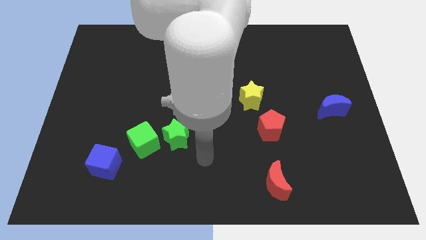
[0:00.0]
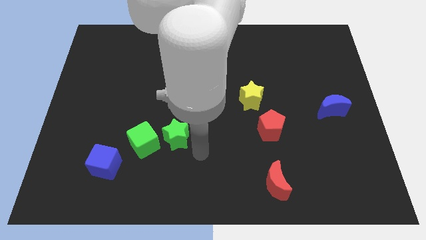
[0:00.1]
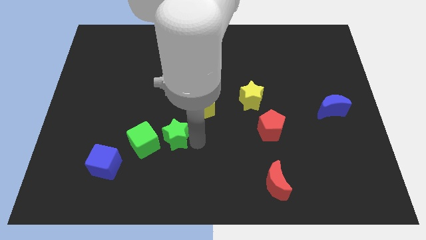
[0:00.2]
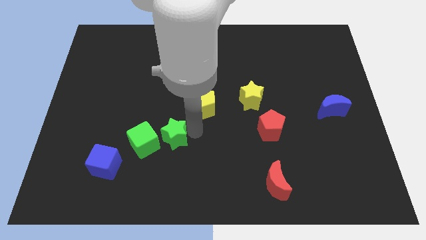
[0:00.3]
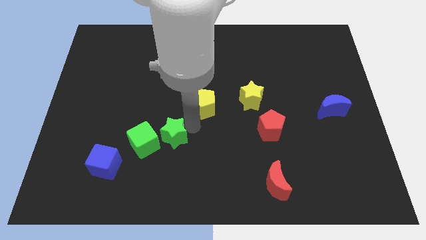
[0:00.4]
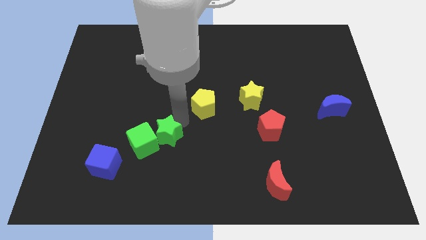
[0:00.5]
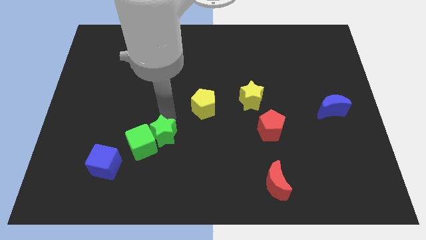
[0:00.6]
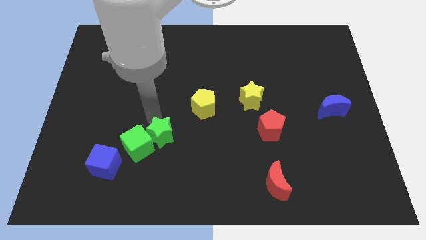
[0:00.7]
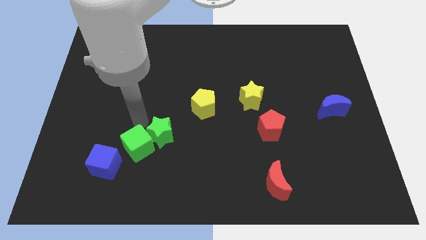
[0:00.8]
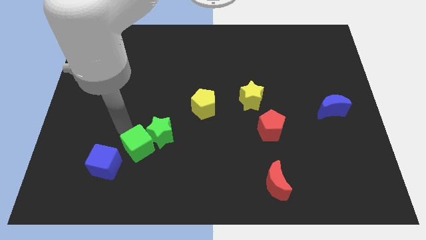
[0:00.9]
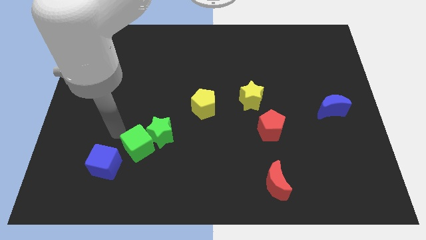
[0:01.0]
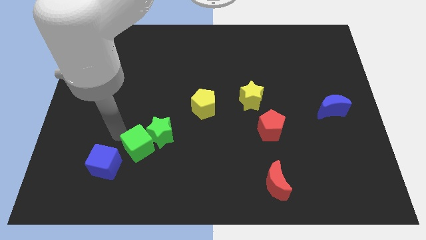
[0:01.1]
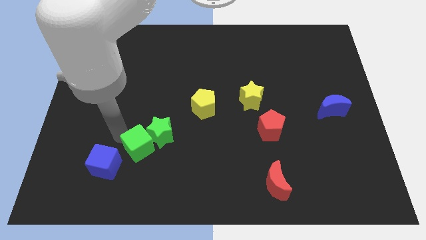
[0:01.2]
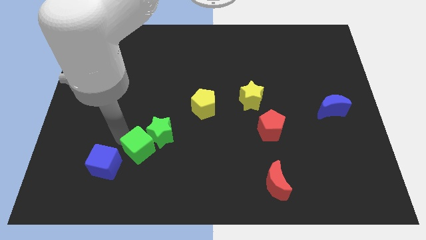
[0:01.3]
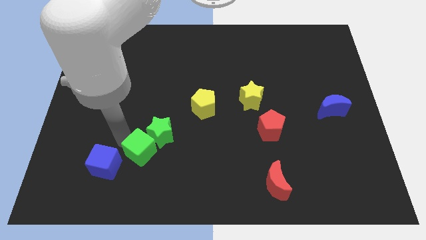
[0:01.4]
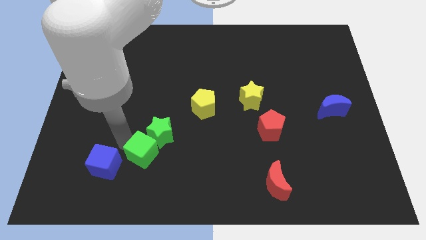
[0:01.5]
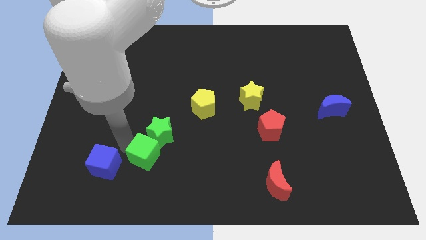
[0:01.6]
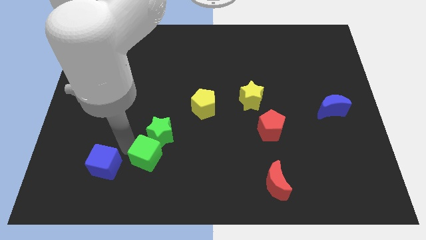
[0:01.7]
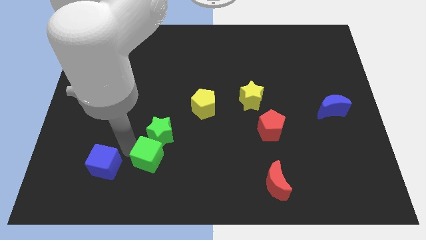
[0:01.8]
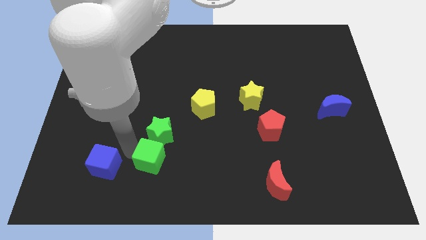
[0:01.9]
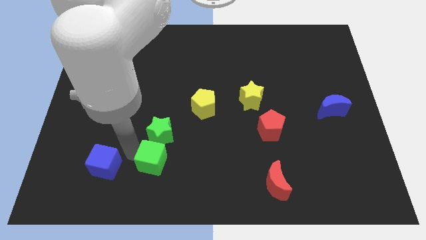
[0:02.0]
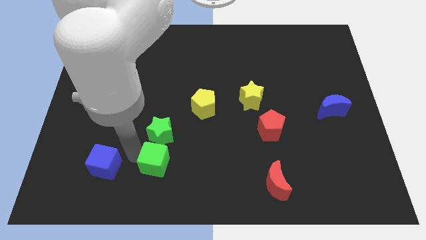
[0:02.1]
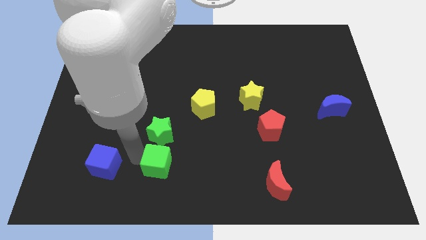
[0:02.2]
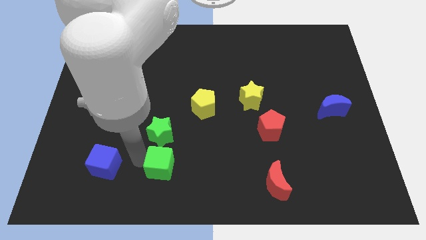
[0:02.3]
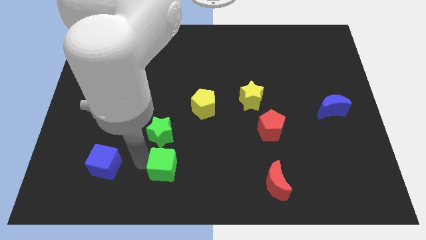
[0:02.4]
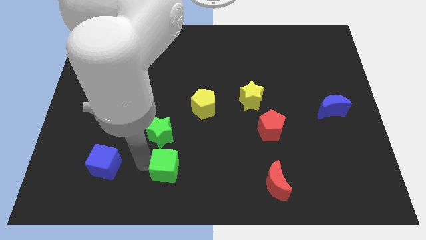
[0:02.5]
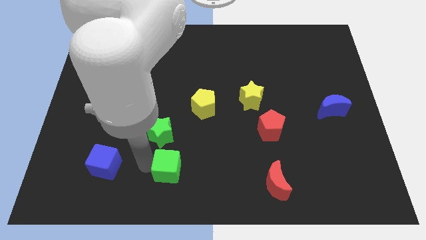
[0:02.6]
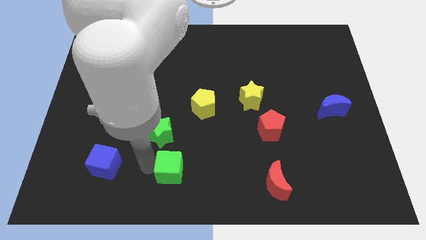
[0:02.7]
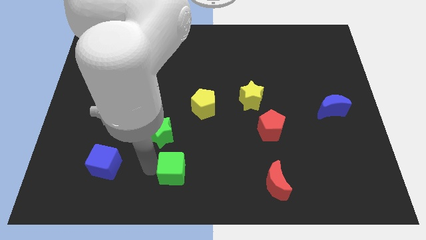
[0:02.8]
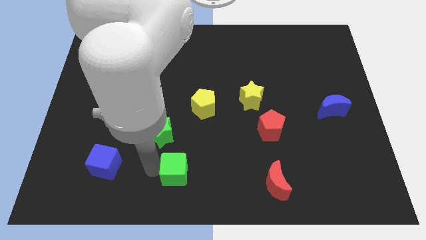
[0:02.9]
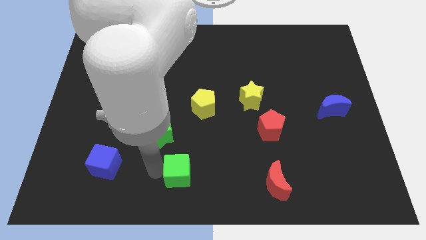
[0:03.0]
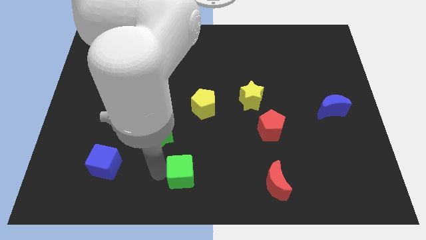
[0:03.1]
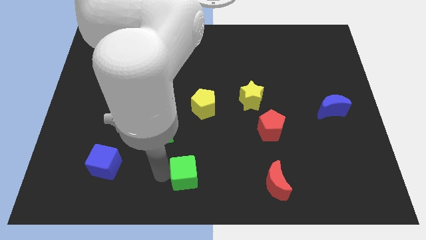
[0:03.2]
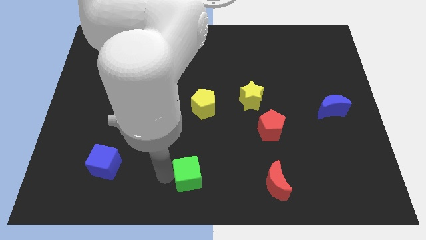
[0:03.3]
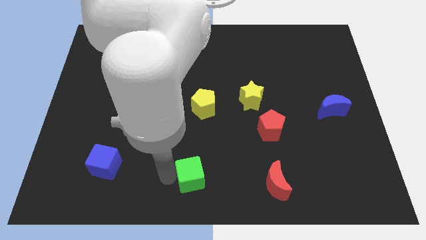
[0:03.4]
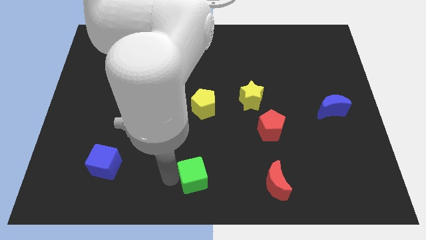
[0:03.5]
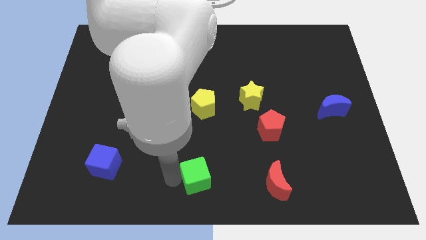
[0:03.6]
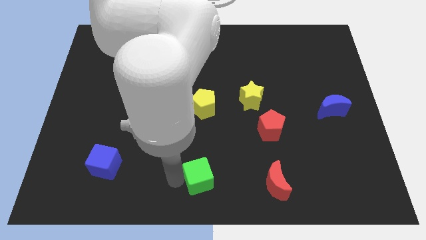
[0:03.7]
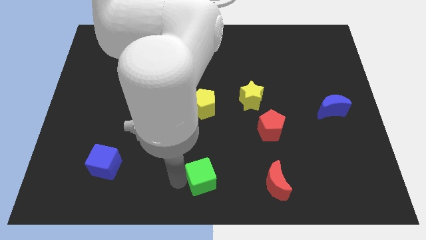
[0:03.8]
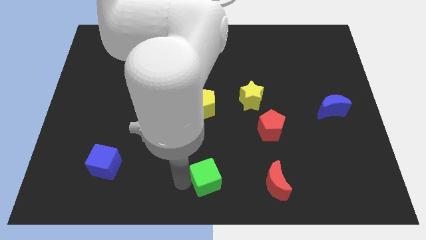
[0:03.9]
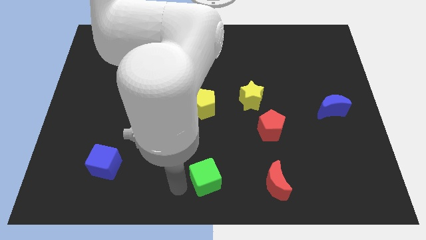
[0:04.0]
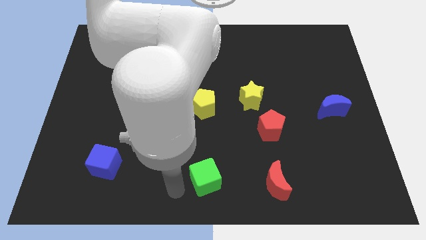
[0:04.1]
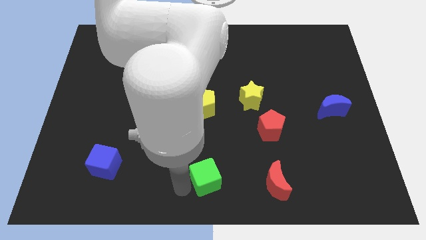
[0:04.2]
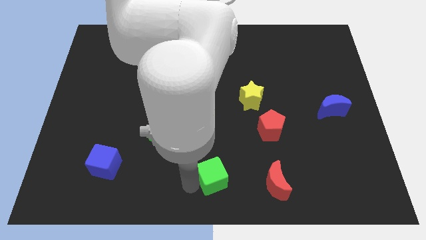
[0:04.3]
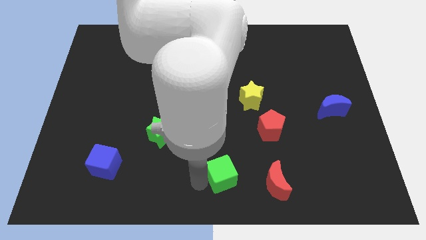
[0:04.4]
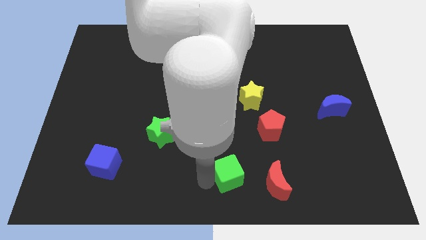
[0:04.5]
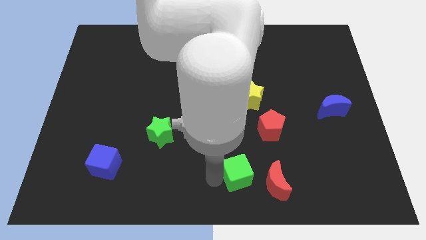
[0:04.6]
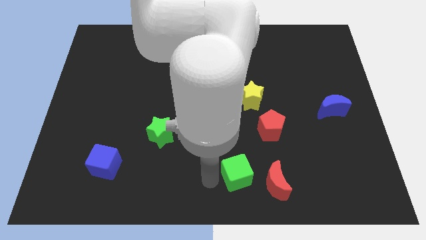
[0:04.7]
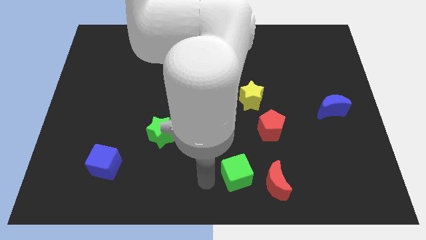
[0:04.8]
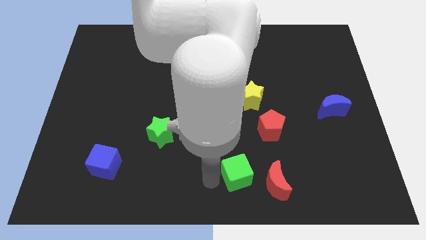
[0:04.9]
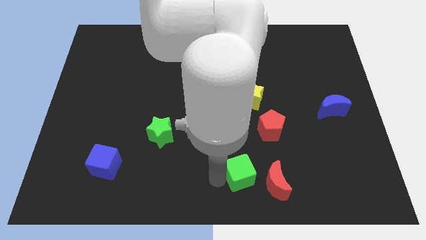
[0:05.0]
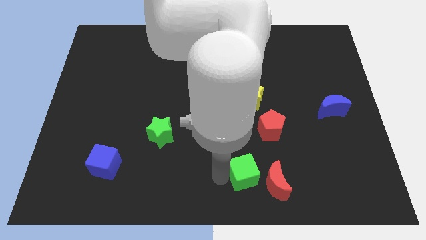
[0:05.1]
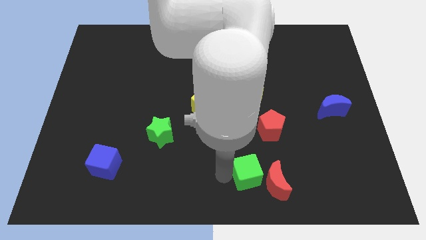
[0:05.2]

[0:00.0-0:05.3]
put the green cube next to the red moon

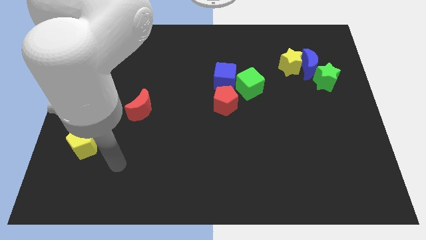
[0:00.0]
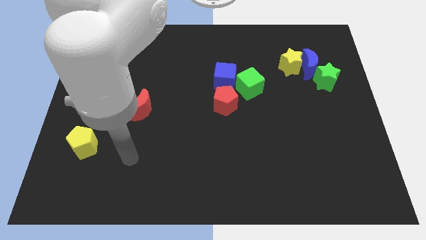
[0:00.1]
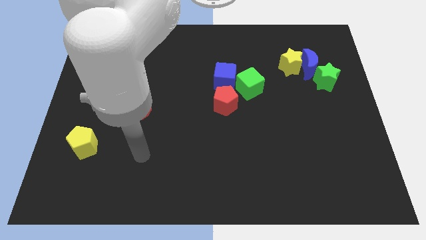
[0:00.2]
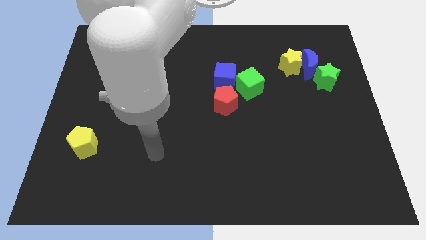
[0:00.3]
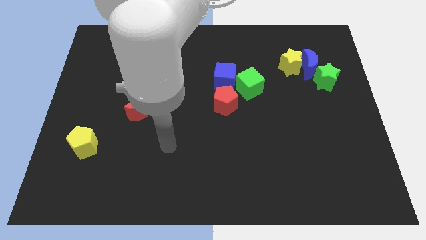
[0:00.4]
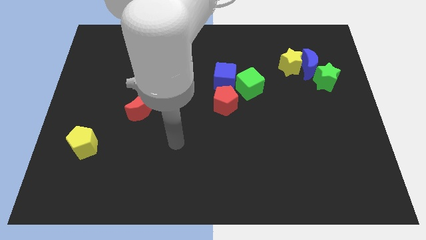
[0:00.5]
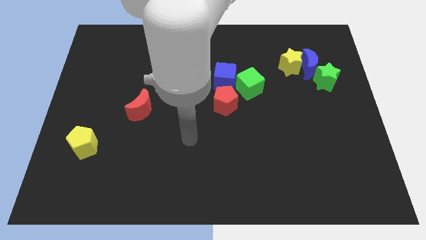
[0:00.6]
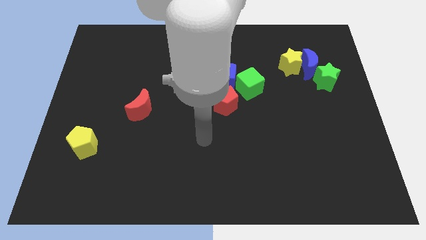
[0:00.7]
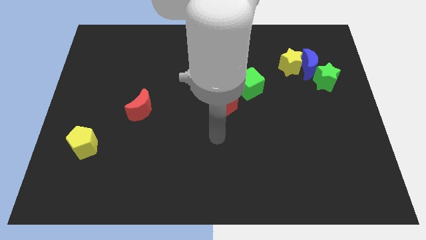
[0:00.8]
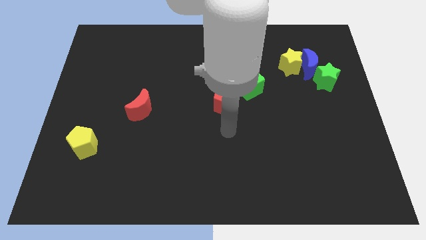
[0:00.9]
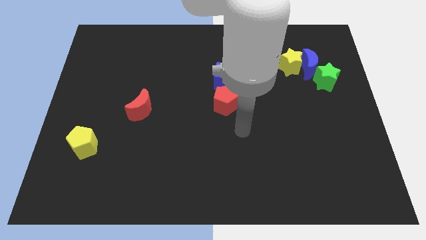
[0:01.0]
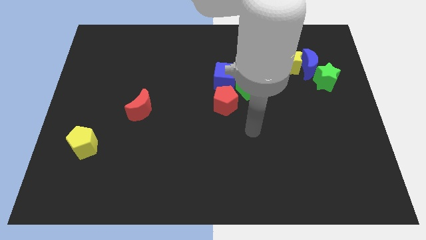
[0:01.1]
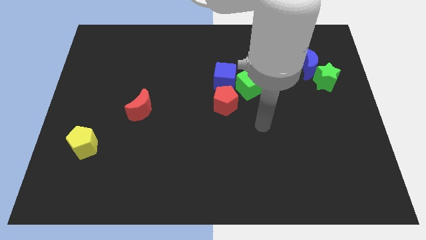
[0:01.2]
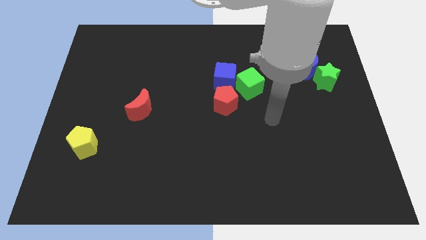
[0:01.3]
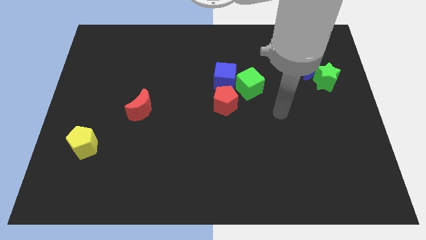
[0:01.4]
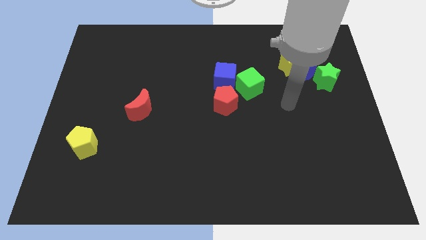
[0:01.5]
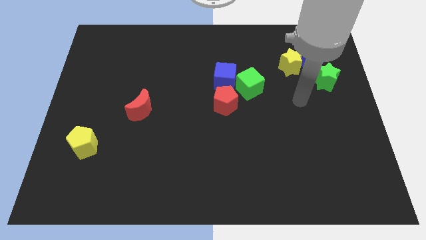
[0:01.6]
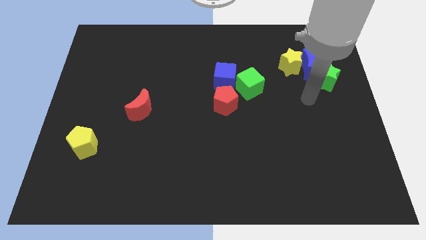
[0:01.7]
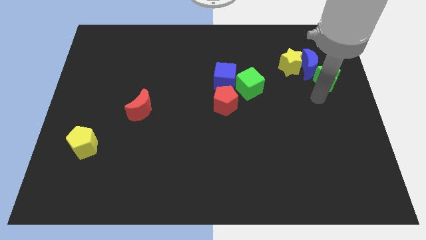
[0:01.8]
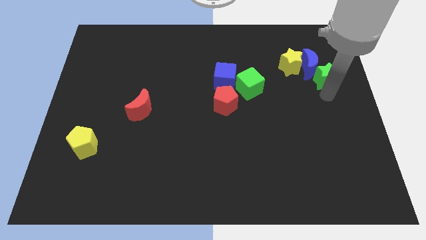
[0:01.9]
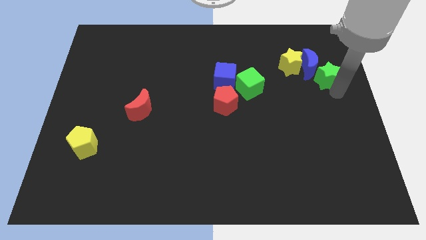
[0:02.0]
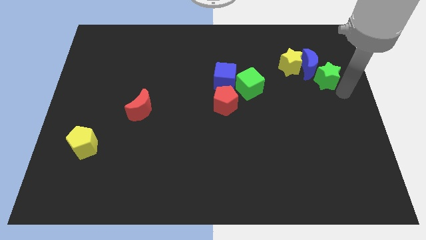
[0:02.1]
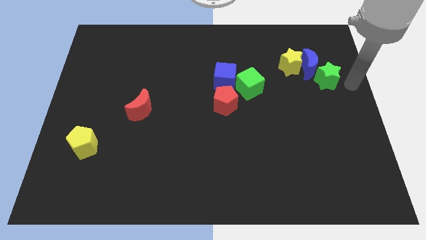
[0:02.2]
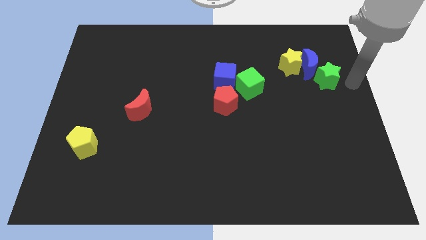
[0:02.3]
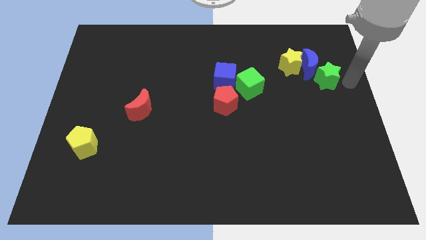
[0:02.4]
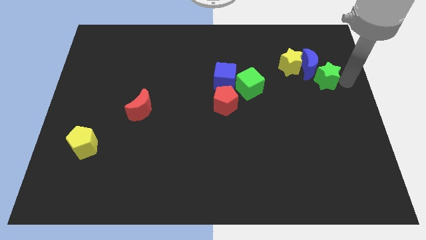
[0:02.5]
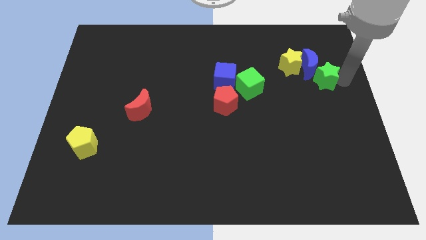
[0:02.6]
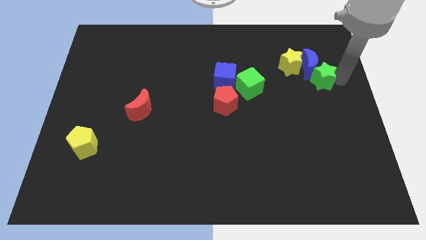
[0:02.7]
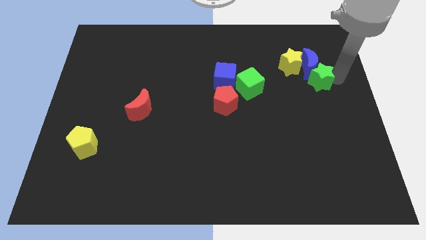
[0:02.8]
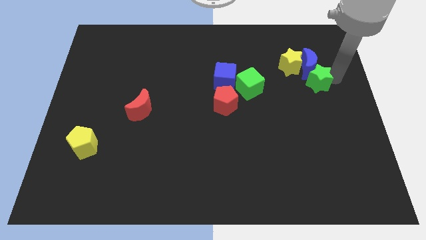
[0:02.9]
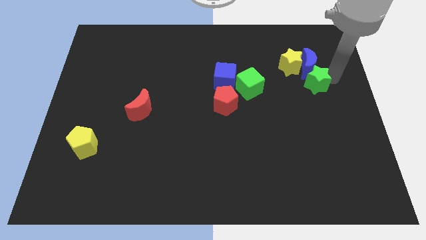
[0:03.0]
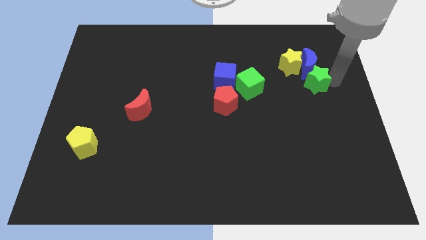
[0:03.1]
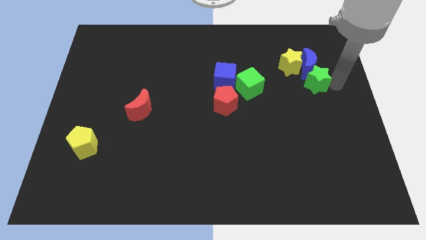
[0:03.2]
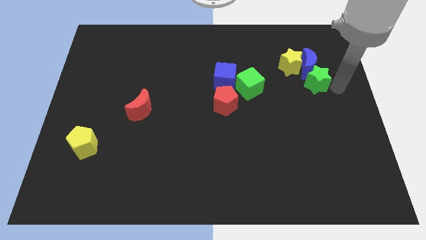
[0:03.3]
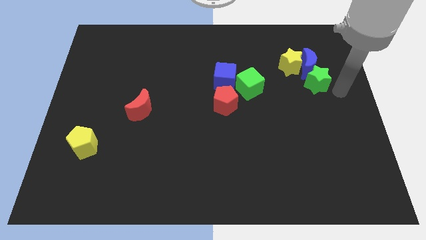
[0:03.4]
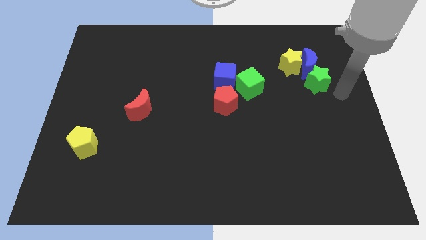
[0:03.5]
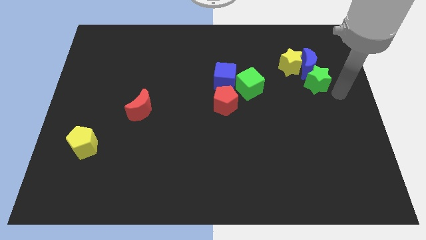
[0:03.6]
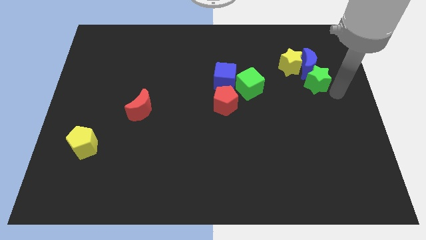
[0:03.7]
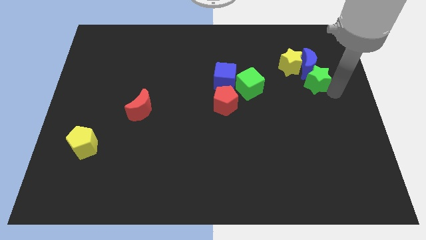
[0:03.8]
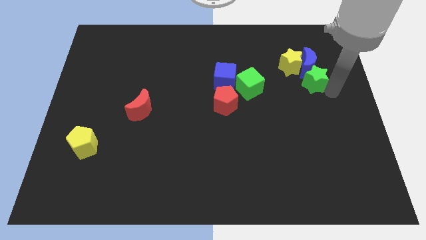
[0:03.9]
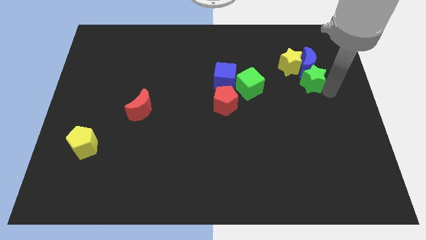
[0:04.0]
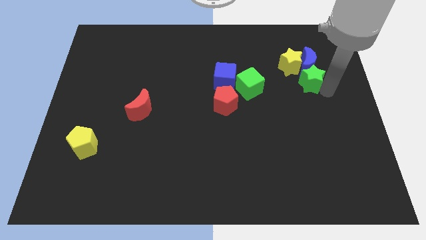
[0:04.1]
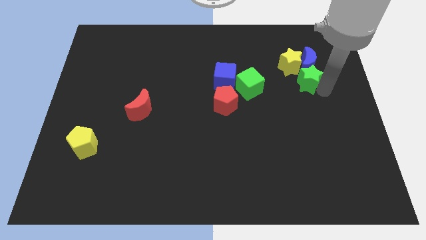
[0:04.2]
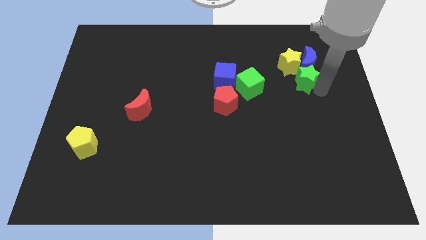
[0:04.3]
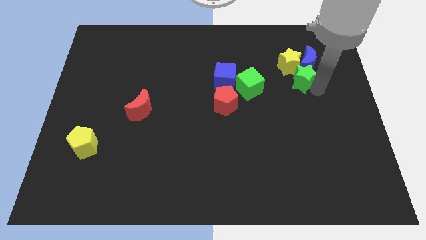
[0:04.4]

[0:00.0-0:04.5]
put the green star towards the yellow star
